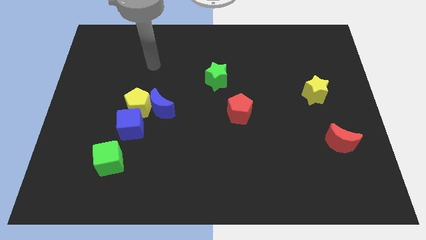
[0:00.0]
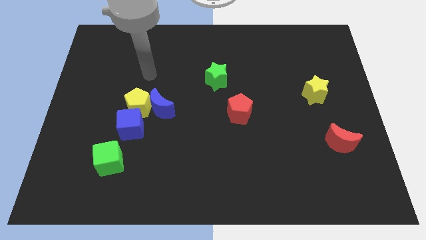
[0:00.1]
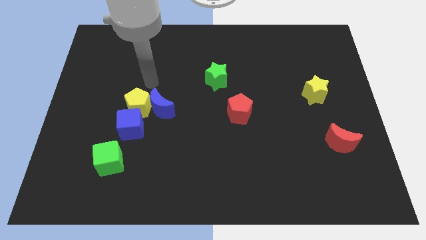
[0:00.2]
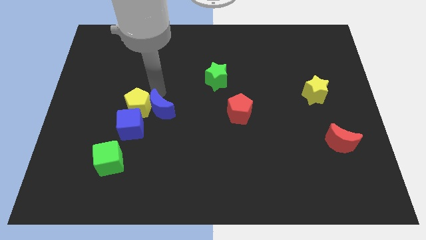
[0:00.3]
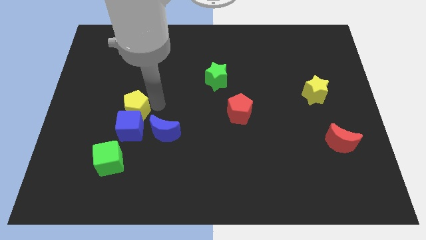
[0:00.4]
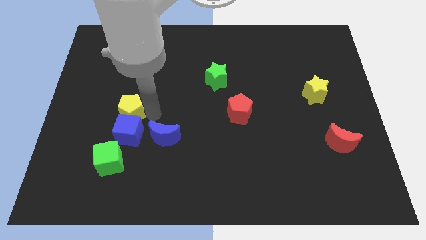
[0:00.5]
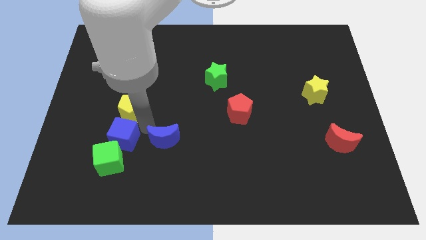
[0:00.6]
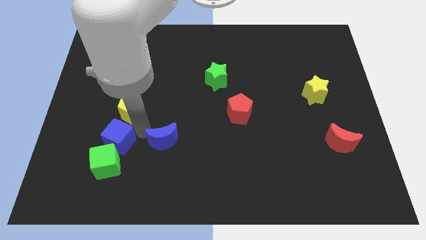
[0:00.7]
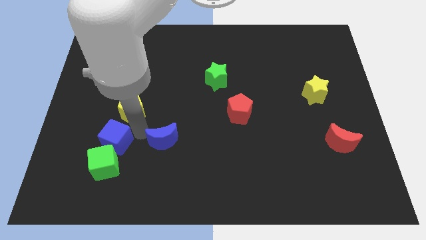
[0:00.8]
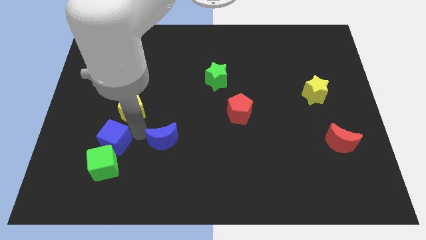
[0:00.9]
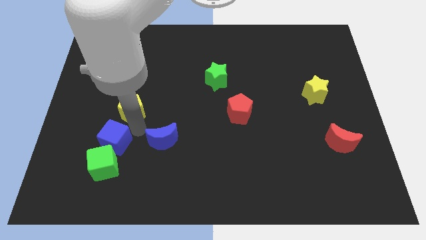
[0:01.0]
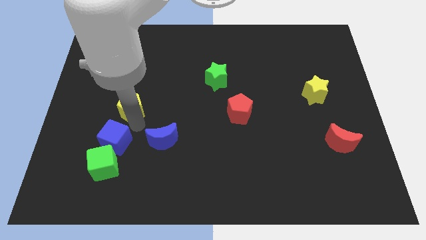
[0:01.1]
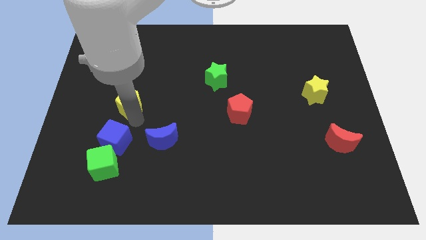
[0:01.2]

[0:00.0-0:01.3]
separate the yellow pentagon from the blue moon and blue cube

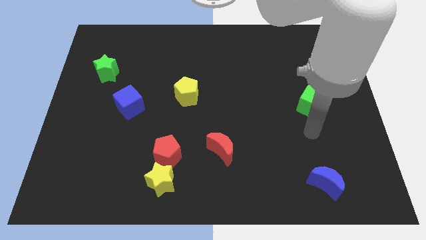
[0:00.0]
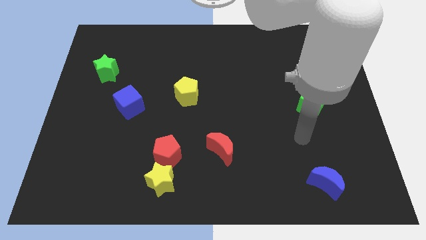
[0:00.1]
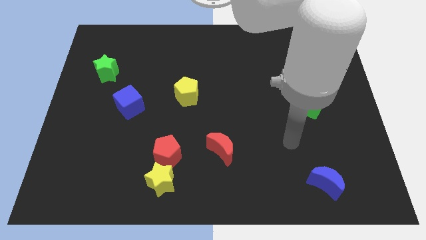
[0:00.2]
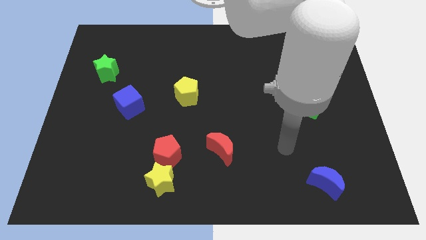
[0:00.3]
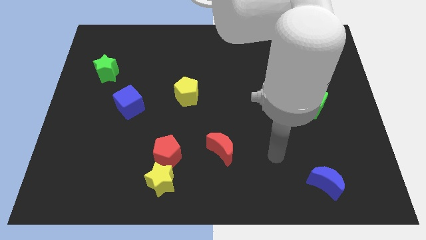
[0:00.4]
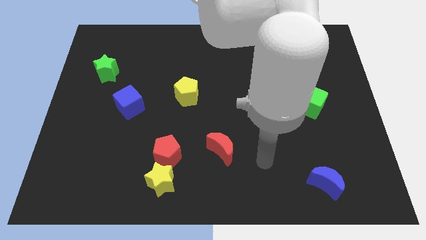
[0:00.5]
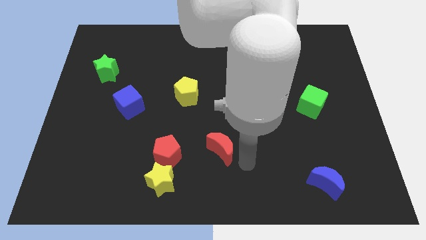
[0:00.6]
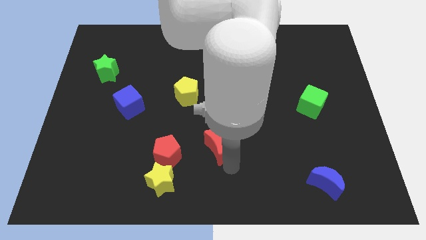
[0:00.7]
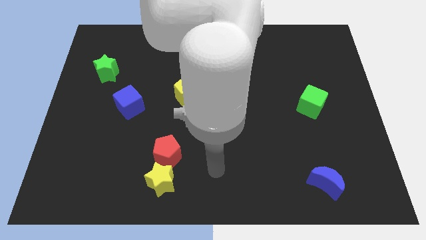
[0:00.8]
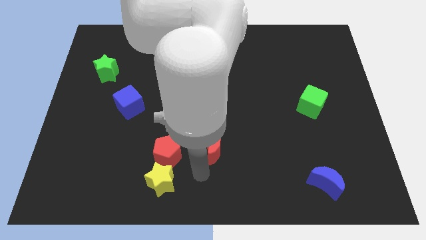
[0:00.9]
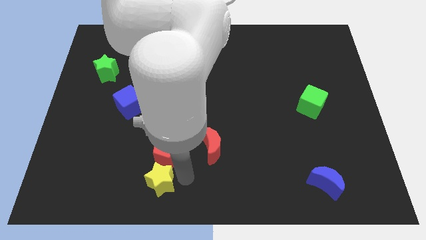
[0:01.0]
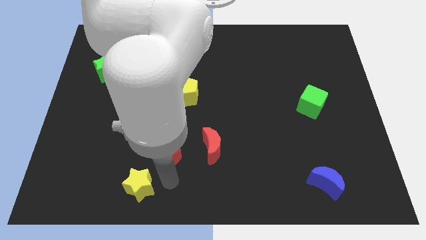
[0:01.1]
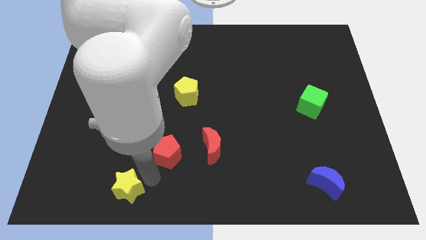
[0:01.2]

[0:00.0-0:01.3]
move the red pentagon away from the yellow star

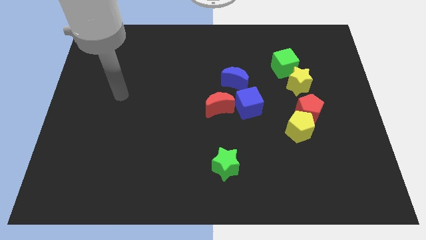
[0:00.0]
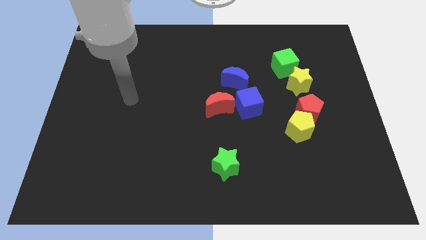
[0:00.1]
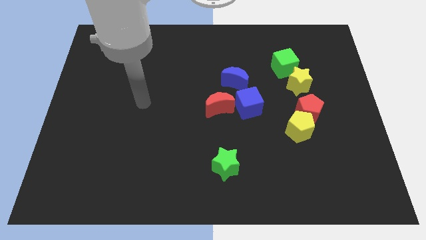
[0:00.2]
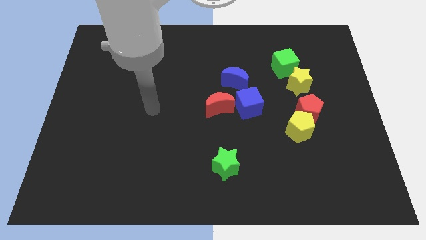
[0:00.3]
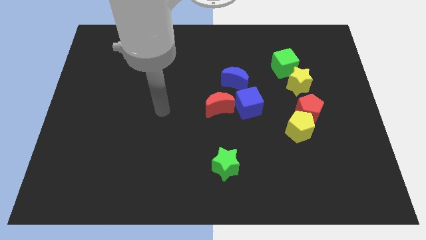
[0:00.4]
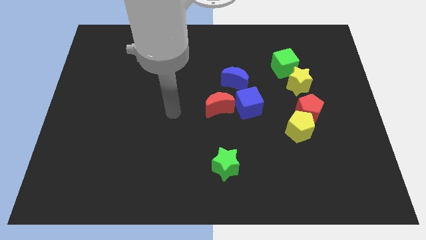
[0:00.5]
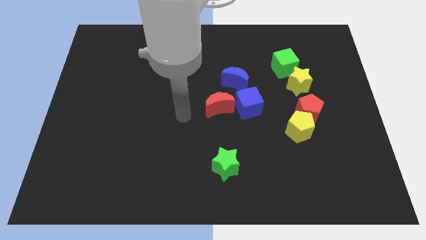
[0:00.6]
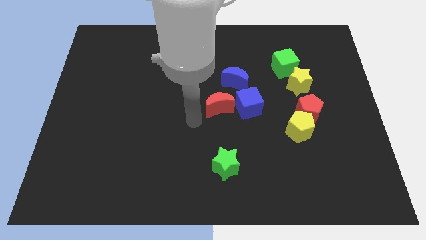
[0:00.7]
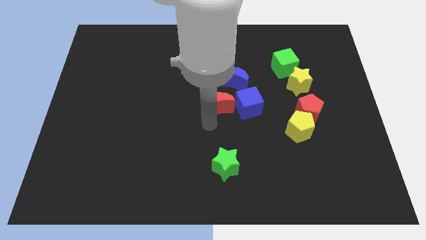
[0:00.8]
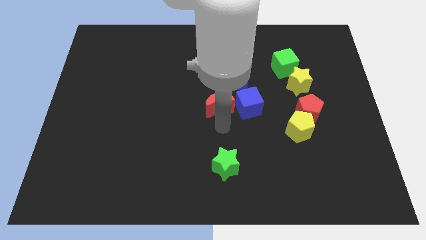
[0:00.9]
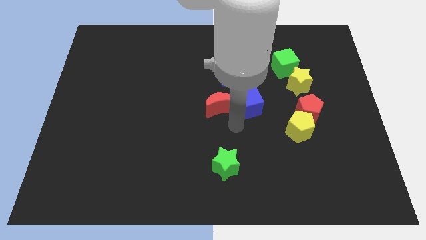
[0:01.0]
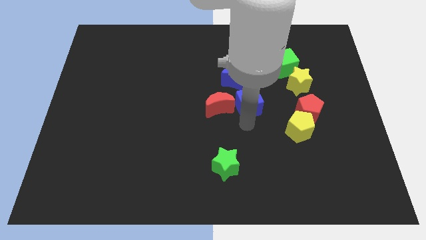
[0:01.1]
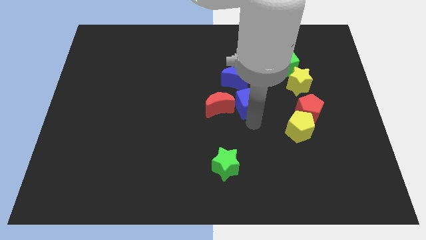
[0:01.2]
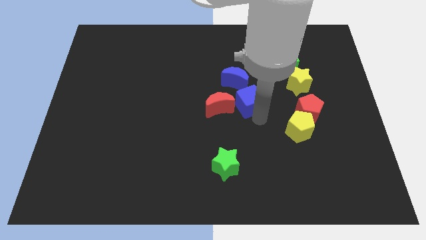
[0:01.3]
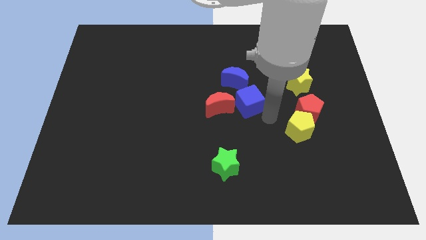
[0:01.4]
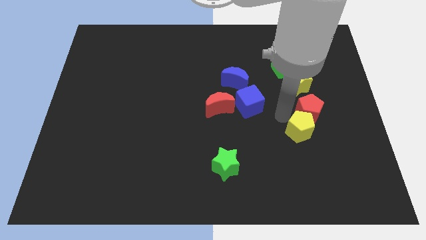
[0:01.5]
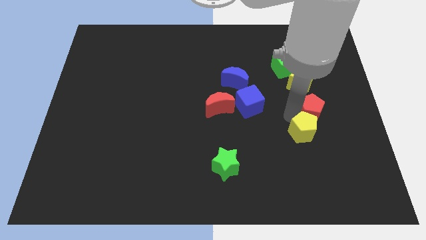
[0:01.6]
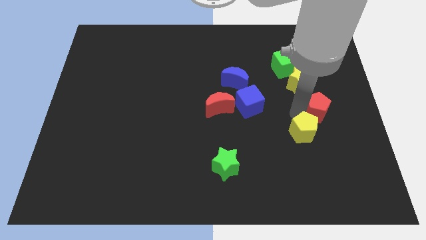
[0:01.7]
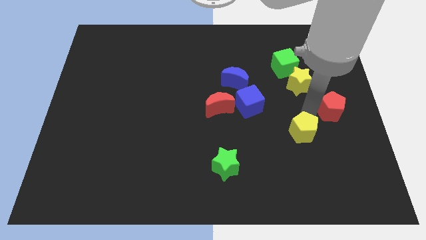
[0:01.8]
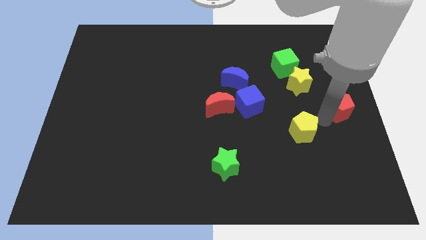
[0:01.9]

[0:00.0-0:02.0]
move the yellow pentagon away from the red pentagon

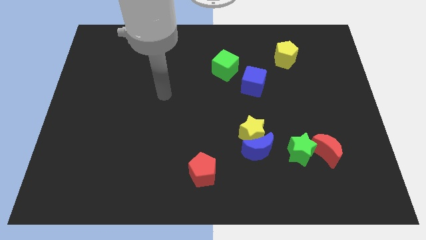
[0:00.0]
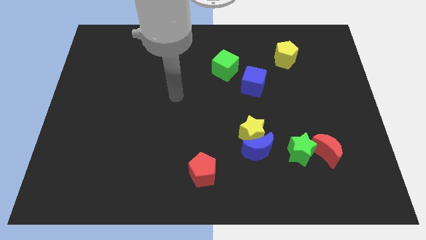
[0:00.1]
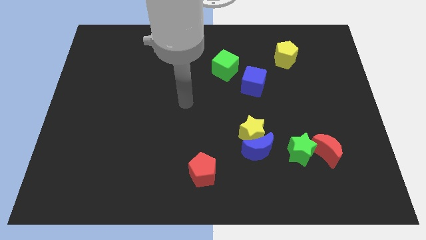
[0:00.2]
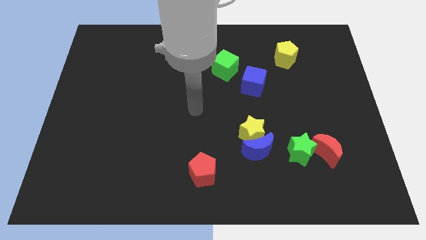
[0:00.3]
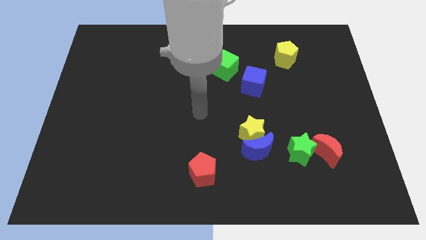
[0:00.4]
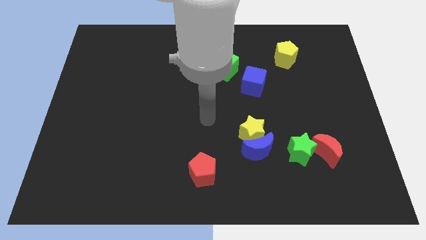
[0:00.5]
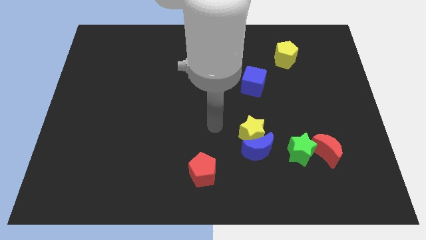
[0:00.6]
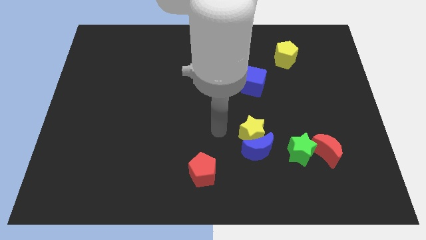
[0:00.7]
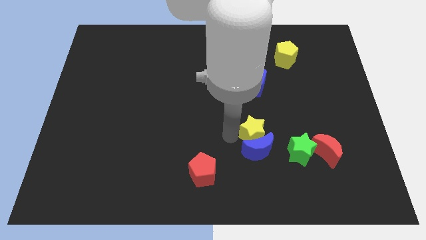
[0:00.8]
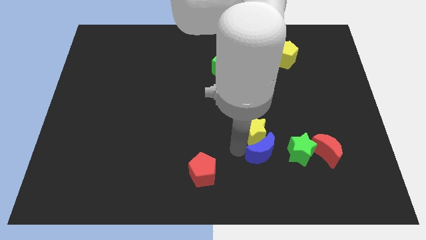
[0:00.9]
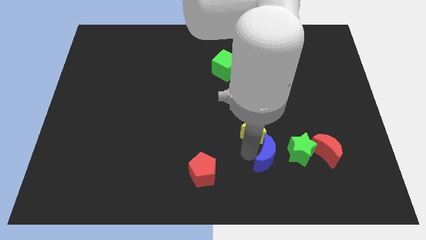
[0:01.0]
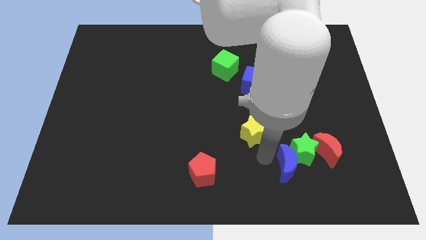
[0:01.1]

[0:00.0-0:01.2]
move the yellow star away from the blue moon

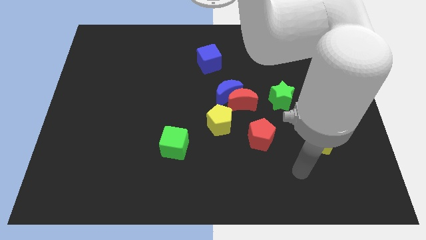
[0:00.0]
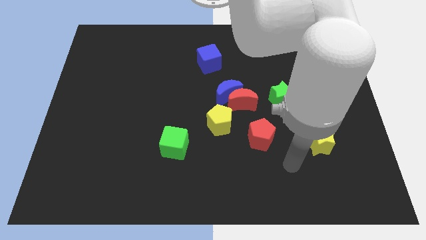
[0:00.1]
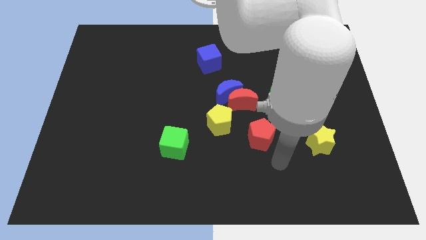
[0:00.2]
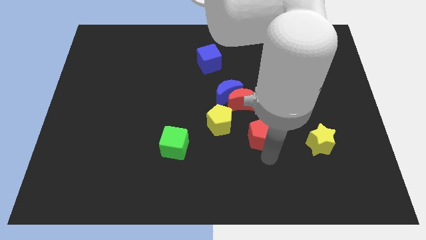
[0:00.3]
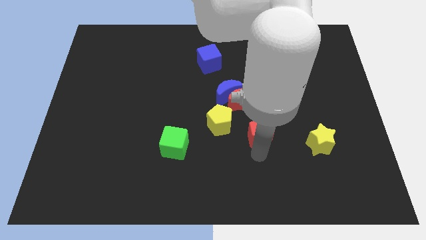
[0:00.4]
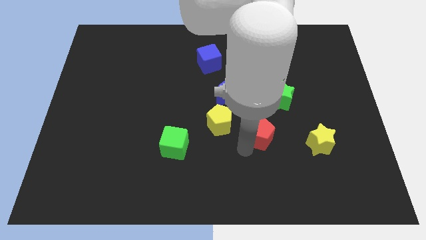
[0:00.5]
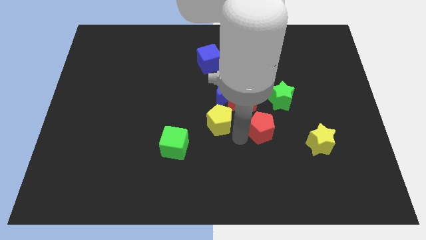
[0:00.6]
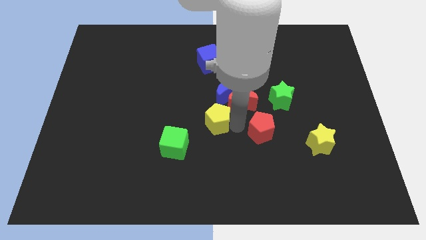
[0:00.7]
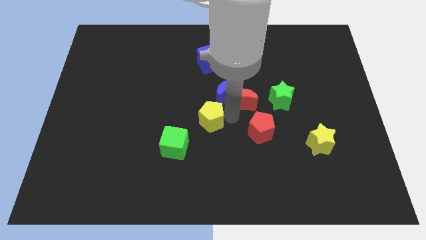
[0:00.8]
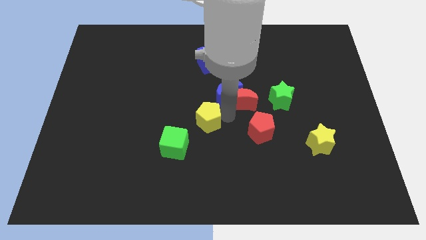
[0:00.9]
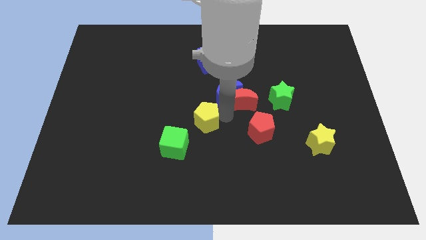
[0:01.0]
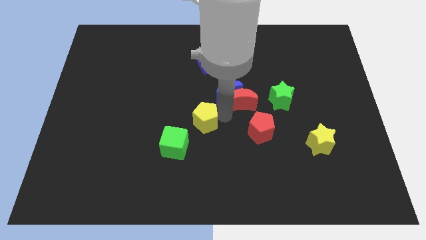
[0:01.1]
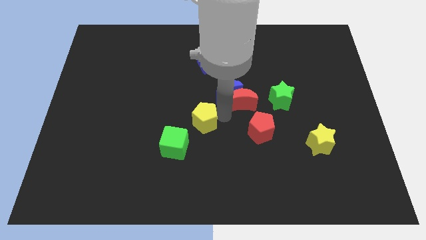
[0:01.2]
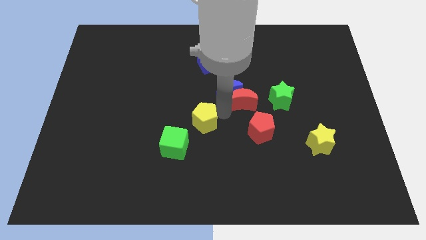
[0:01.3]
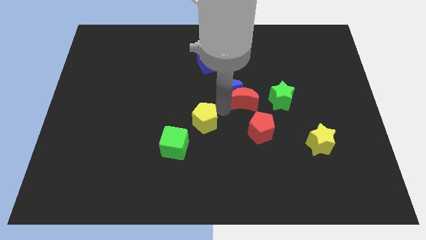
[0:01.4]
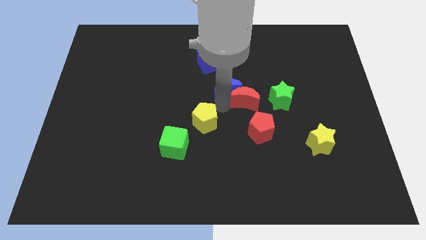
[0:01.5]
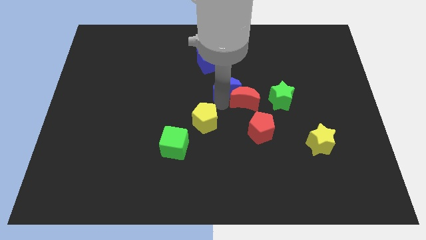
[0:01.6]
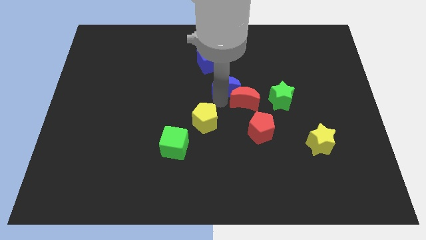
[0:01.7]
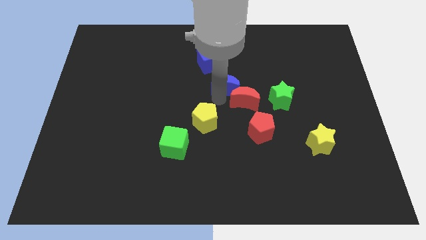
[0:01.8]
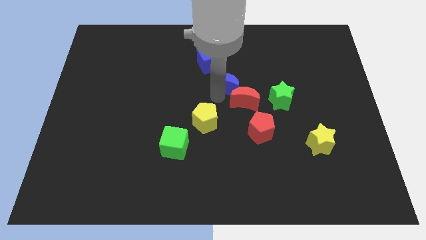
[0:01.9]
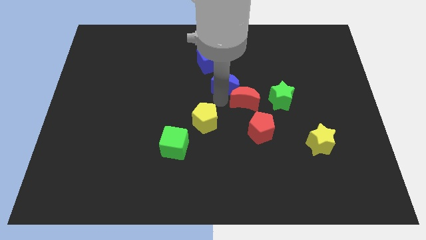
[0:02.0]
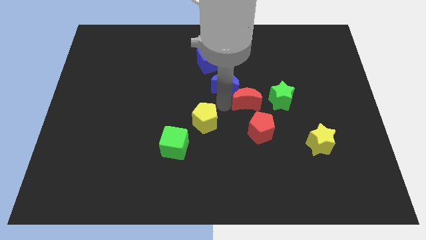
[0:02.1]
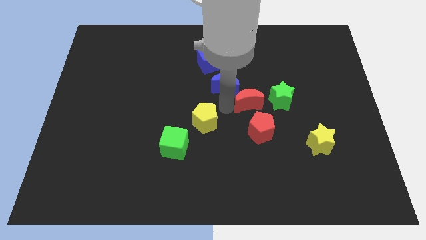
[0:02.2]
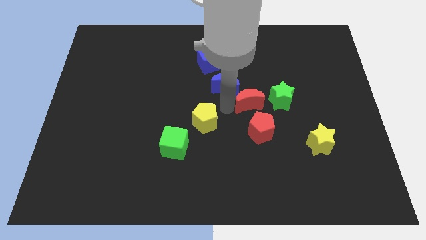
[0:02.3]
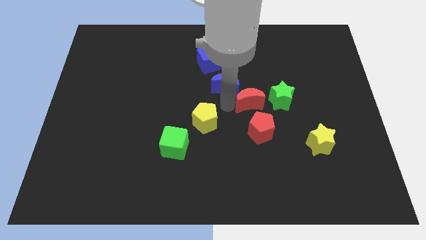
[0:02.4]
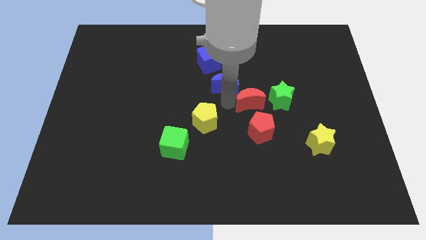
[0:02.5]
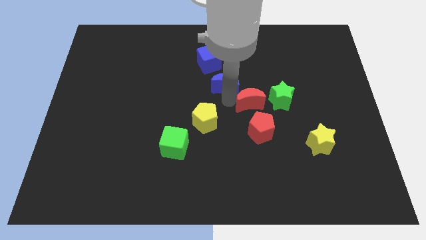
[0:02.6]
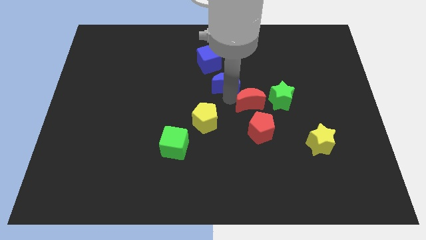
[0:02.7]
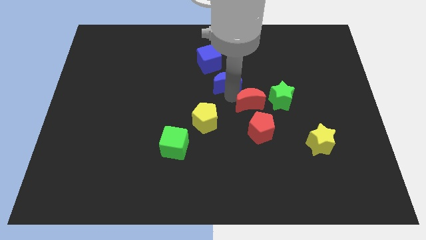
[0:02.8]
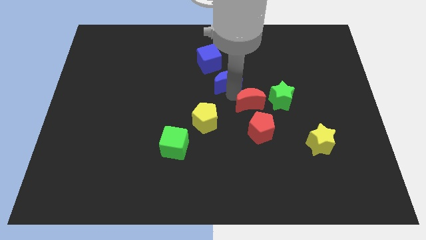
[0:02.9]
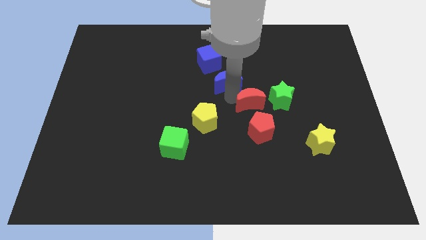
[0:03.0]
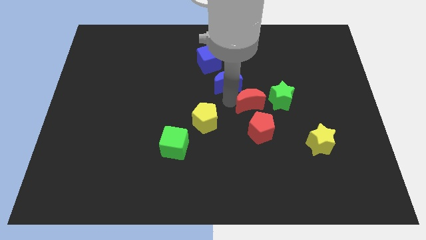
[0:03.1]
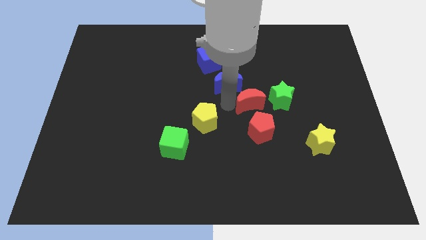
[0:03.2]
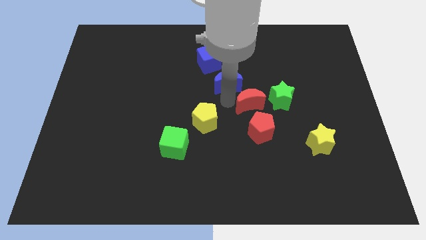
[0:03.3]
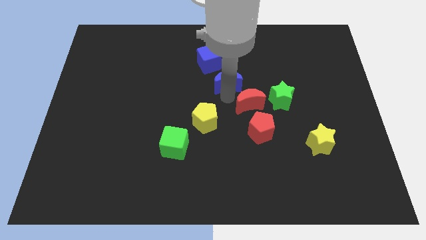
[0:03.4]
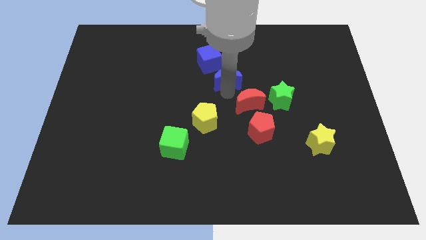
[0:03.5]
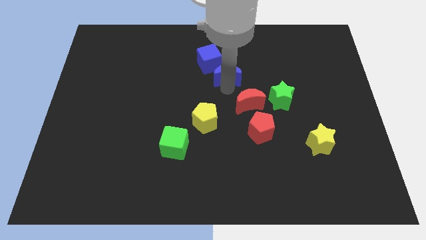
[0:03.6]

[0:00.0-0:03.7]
move the blue moon away from the red moon and yellow pentagon
